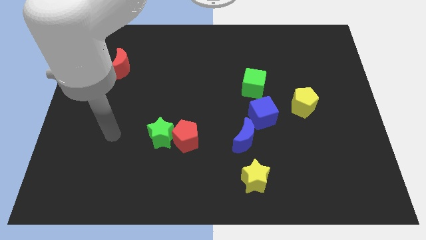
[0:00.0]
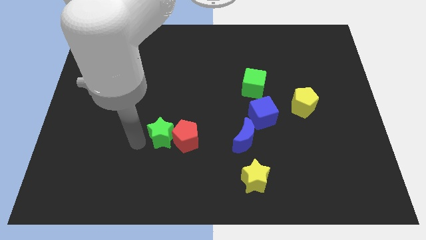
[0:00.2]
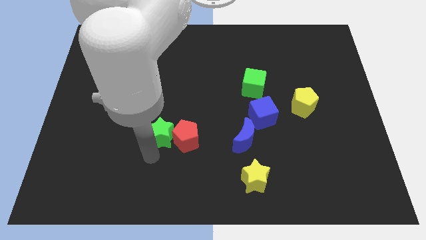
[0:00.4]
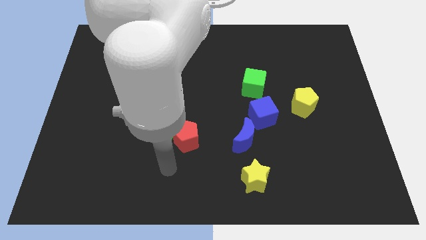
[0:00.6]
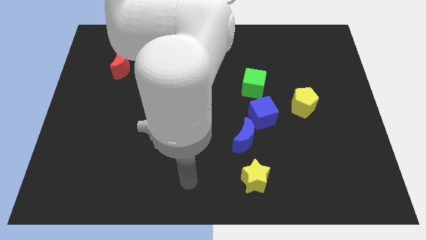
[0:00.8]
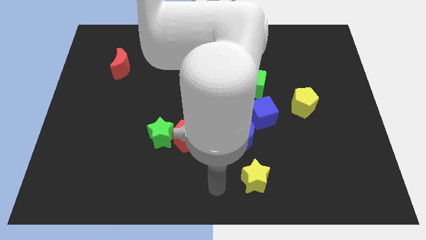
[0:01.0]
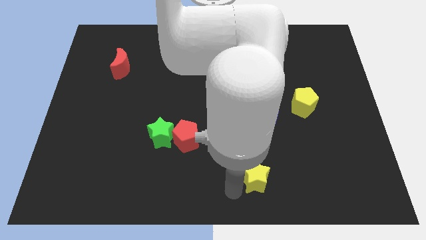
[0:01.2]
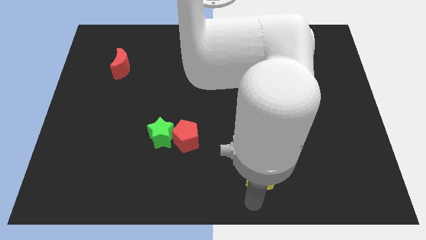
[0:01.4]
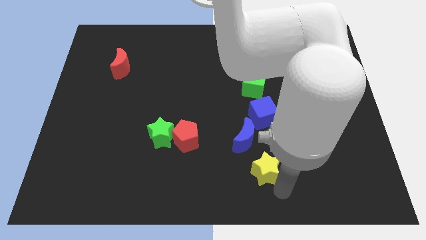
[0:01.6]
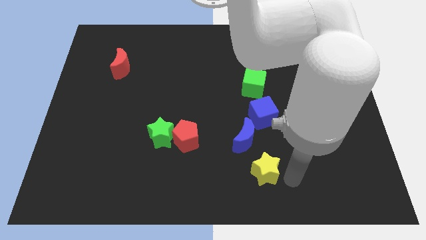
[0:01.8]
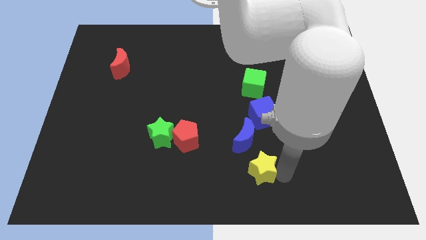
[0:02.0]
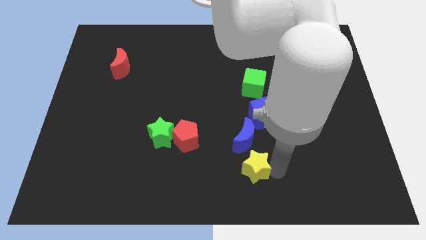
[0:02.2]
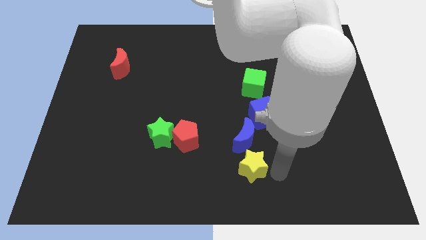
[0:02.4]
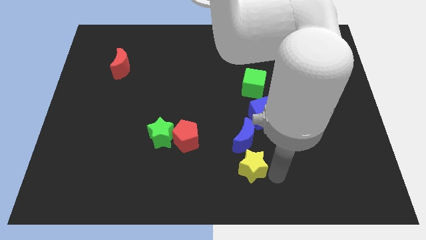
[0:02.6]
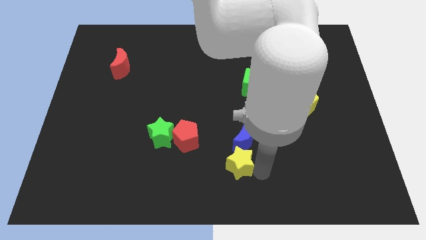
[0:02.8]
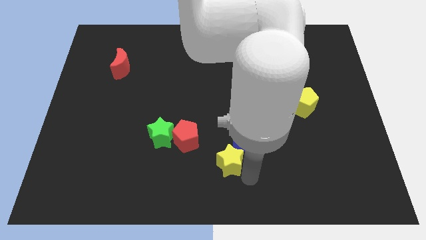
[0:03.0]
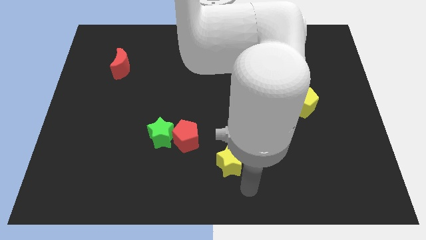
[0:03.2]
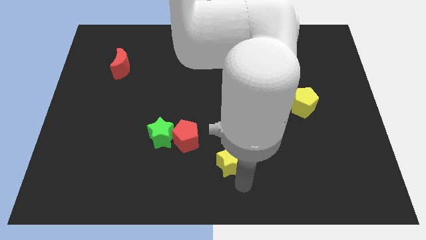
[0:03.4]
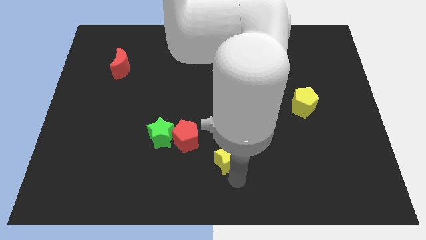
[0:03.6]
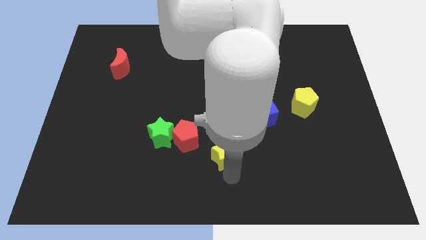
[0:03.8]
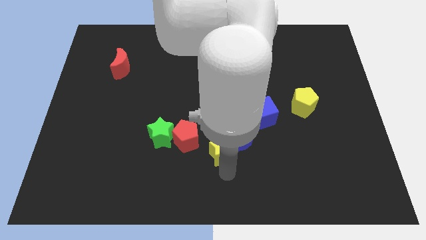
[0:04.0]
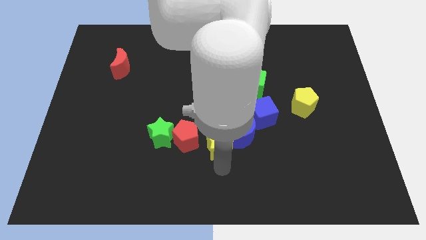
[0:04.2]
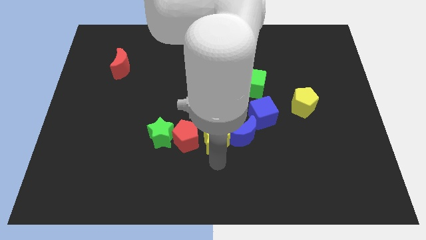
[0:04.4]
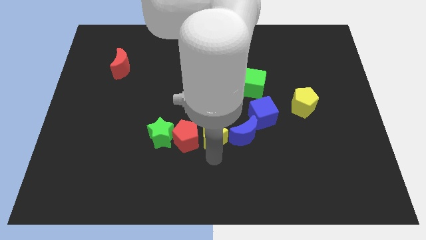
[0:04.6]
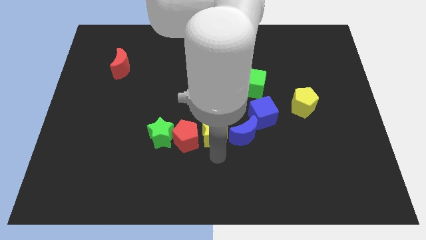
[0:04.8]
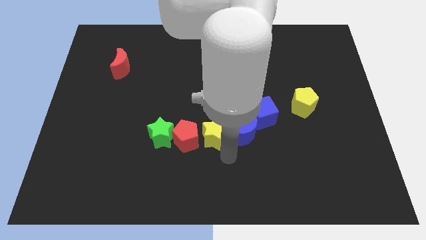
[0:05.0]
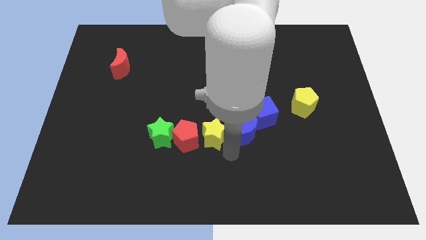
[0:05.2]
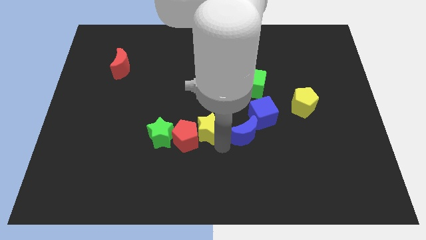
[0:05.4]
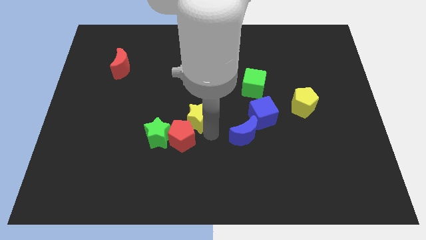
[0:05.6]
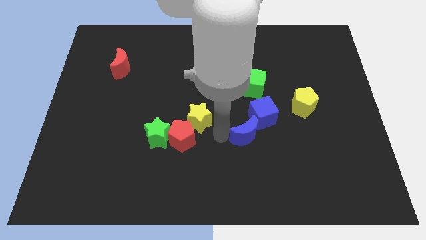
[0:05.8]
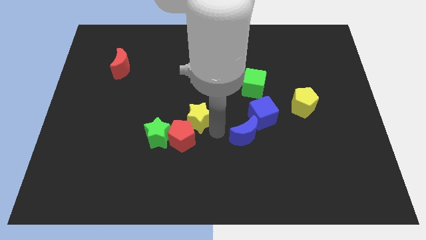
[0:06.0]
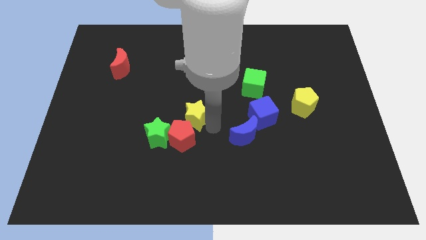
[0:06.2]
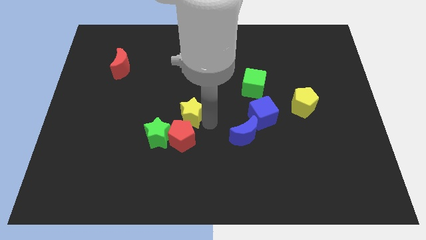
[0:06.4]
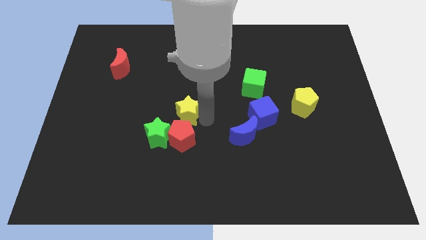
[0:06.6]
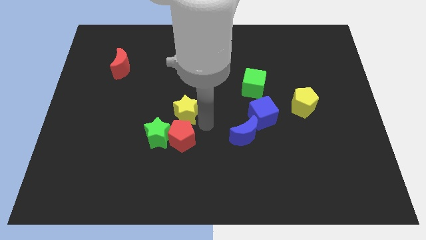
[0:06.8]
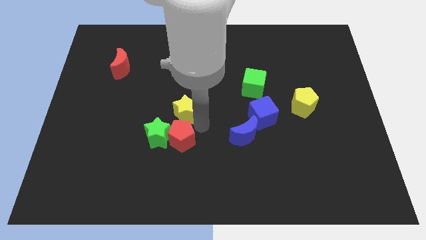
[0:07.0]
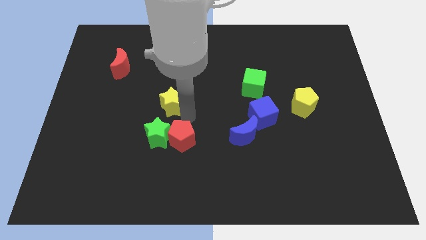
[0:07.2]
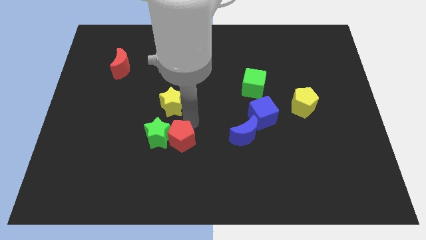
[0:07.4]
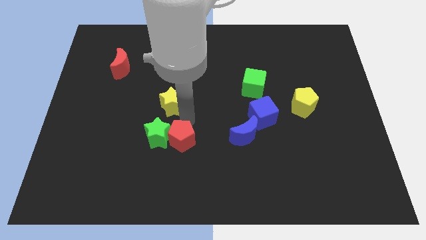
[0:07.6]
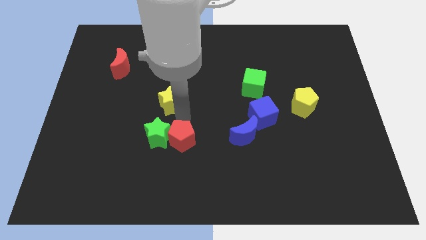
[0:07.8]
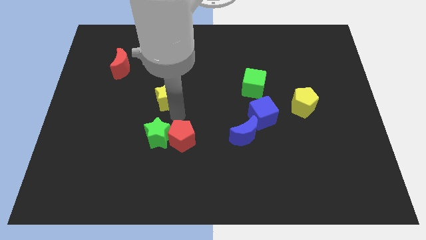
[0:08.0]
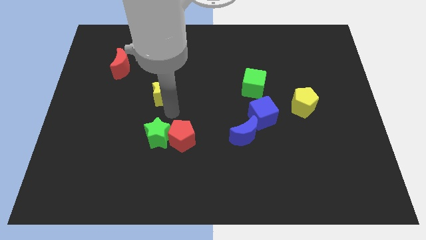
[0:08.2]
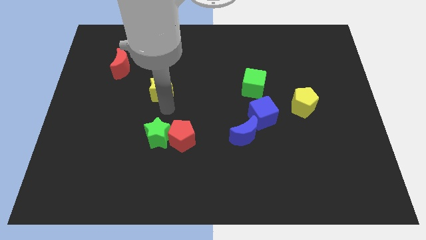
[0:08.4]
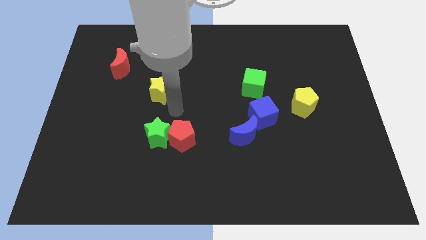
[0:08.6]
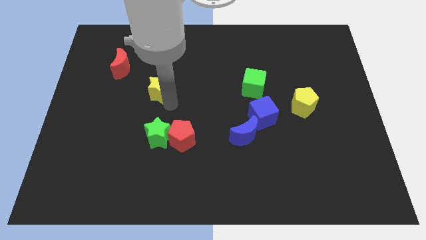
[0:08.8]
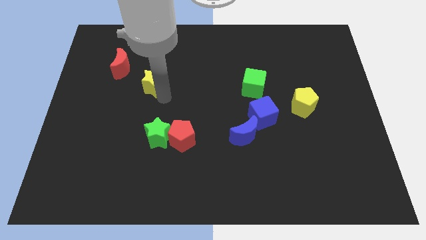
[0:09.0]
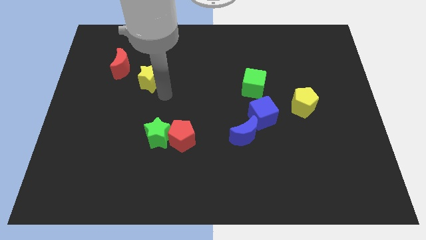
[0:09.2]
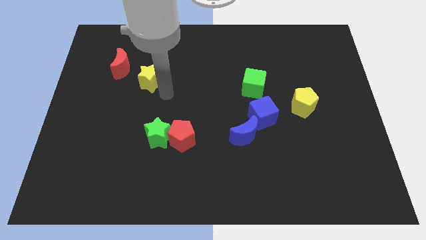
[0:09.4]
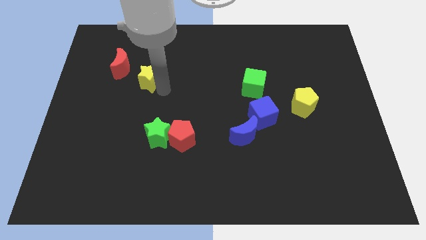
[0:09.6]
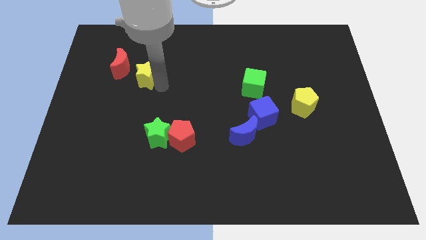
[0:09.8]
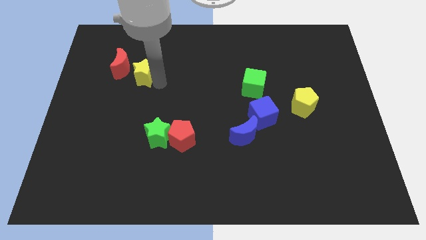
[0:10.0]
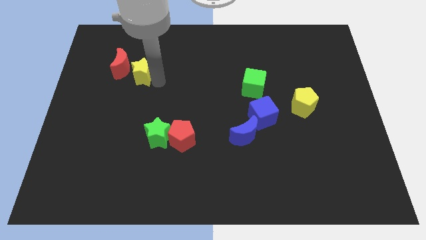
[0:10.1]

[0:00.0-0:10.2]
move the yellow star close to the red moon

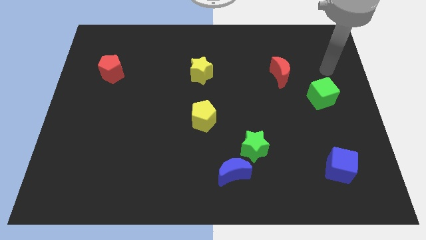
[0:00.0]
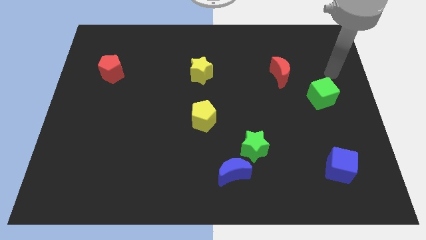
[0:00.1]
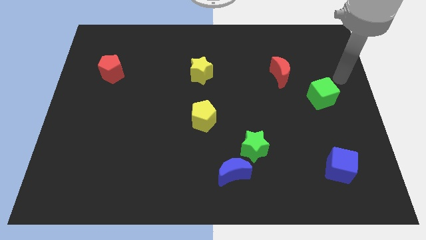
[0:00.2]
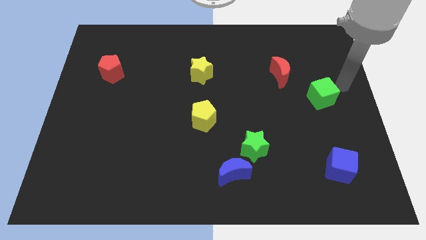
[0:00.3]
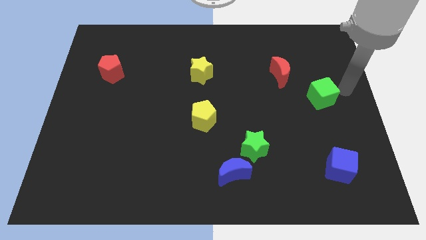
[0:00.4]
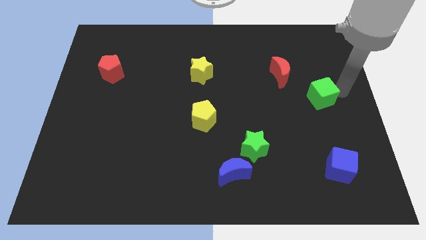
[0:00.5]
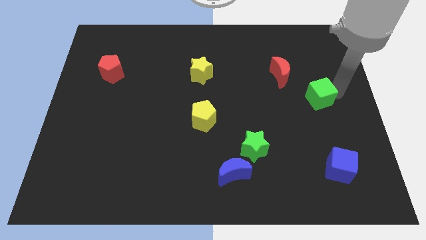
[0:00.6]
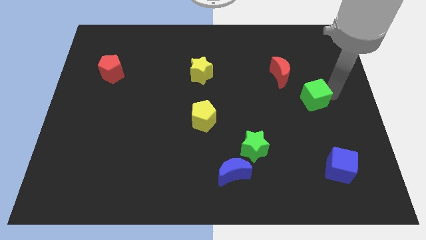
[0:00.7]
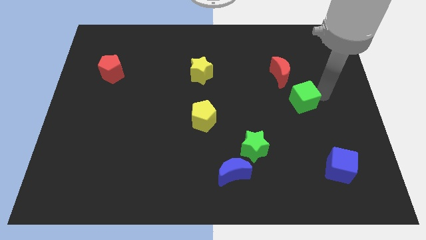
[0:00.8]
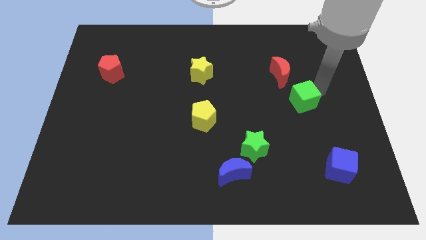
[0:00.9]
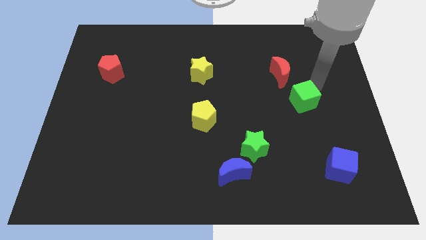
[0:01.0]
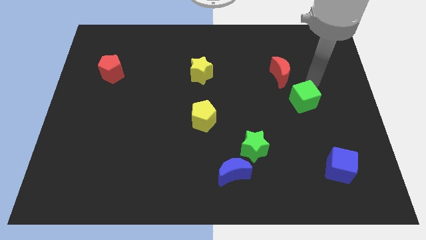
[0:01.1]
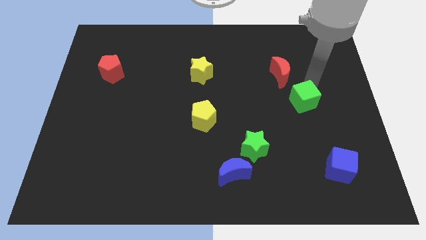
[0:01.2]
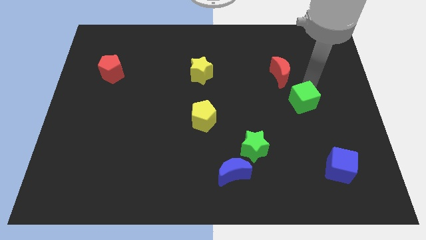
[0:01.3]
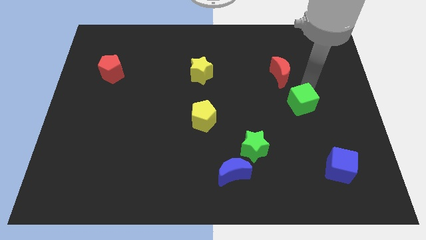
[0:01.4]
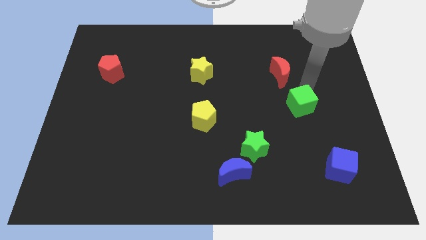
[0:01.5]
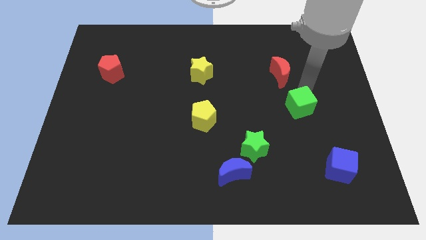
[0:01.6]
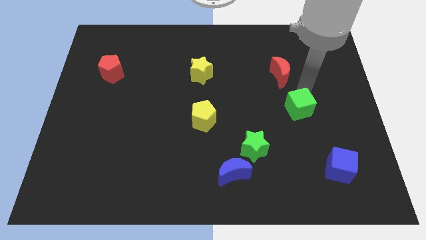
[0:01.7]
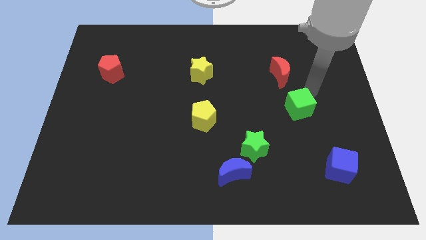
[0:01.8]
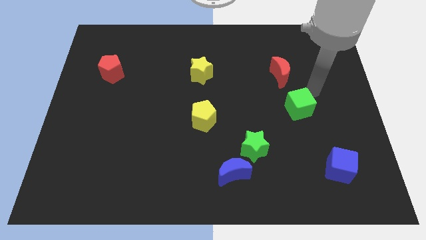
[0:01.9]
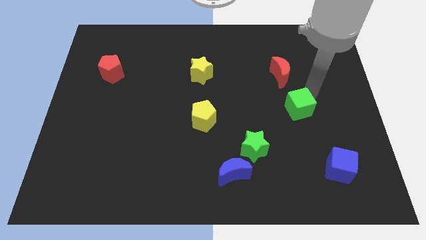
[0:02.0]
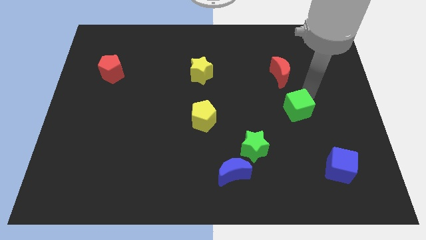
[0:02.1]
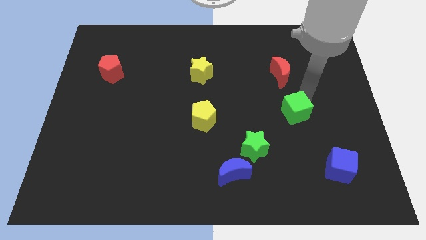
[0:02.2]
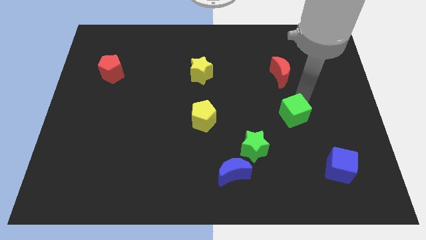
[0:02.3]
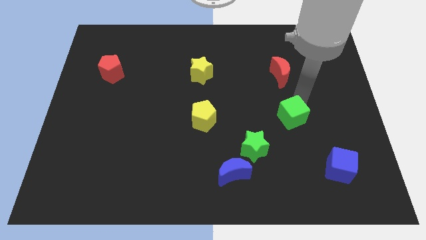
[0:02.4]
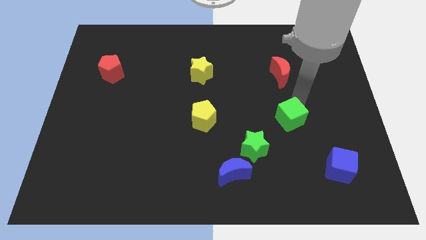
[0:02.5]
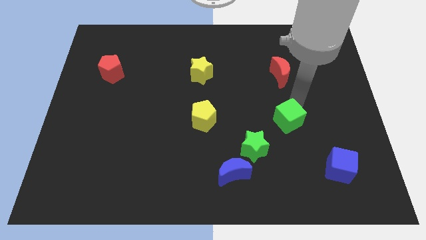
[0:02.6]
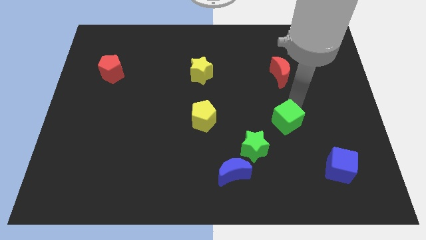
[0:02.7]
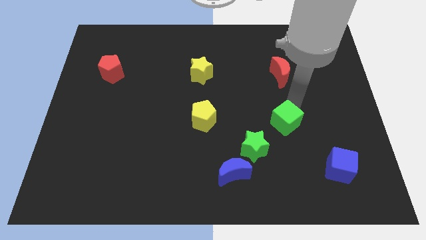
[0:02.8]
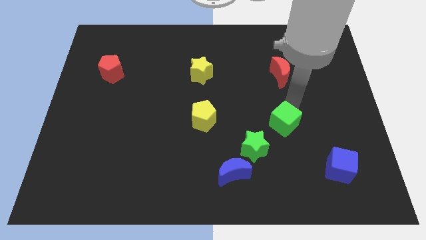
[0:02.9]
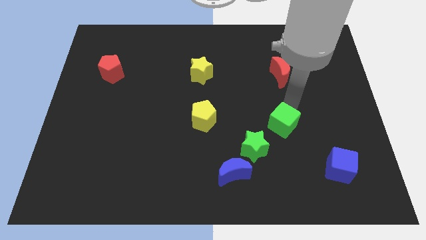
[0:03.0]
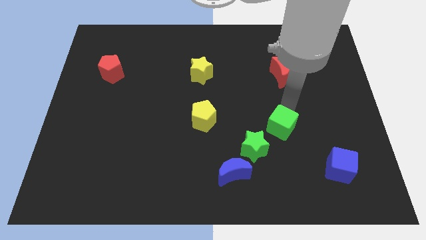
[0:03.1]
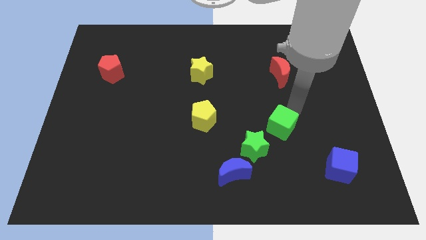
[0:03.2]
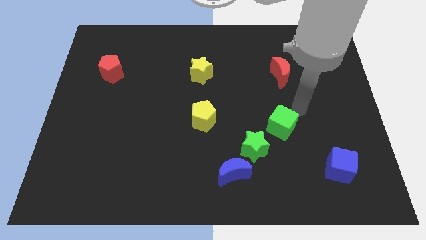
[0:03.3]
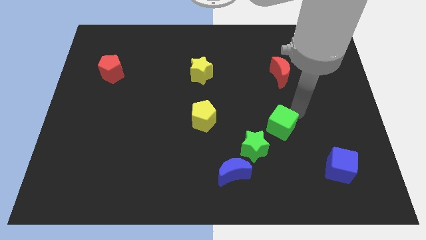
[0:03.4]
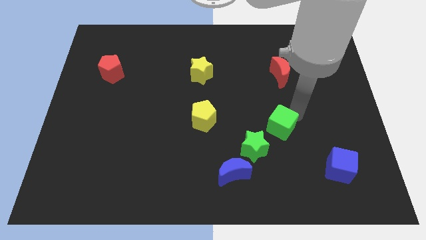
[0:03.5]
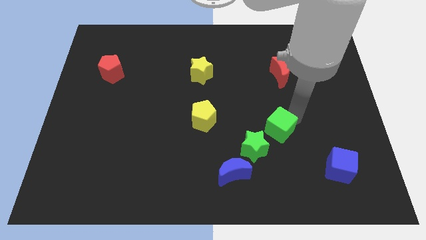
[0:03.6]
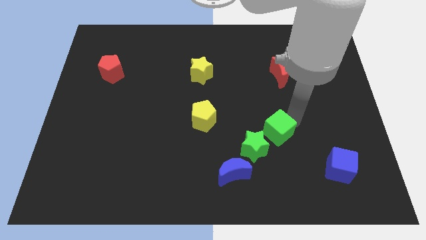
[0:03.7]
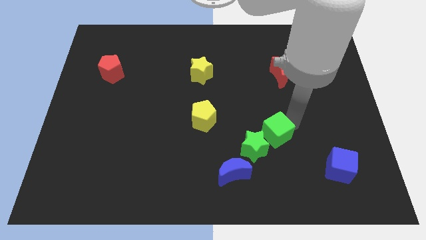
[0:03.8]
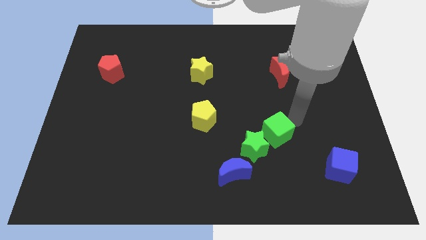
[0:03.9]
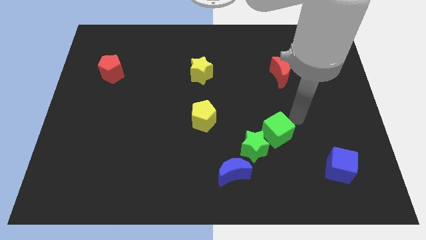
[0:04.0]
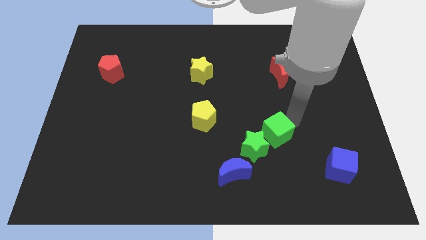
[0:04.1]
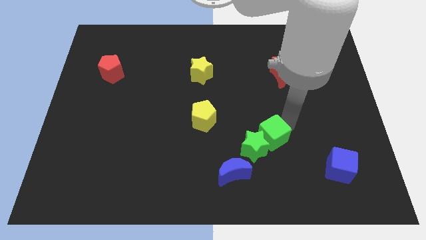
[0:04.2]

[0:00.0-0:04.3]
move the green cube next to the green star
